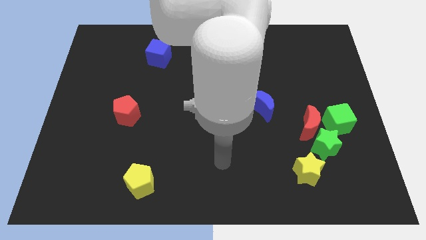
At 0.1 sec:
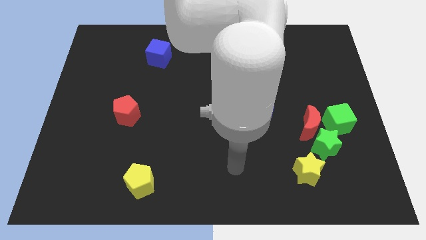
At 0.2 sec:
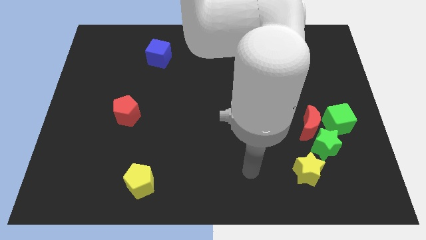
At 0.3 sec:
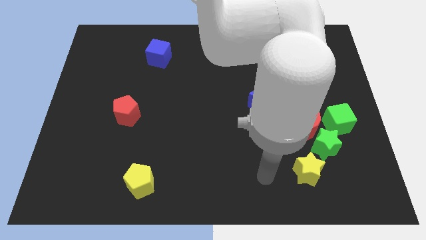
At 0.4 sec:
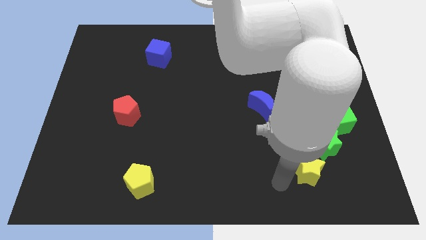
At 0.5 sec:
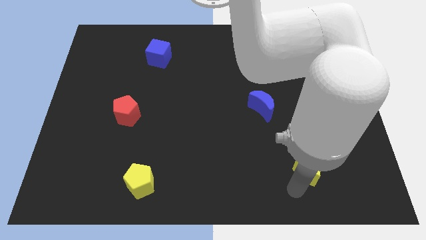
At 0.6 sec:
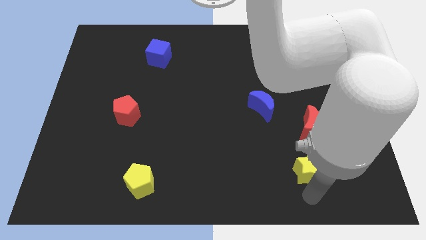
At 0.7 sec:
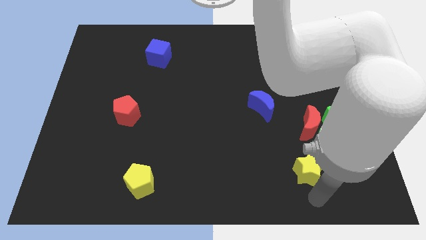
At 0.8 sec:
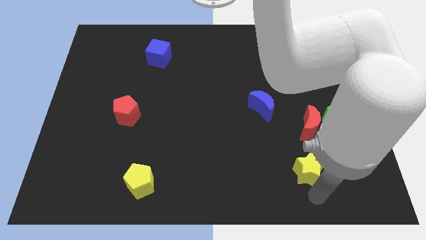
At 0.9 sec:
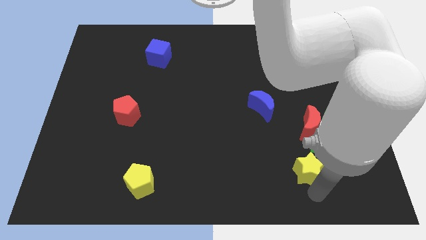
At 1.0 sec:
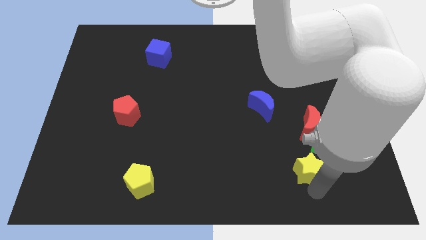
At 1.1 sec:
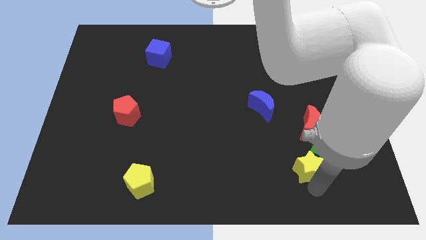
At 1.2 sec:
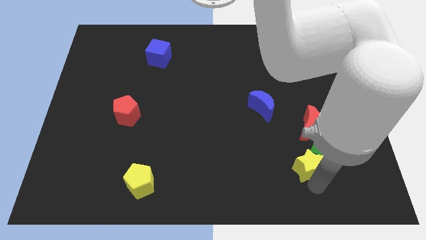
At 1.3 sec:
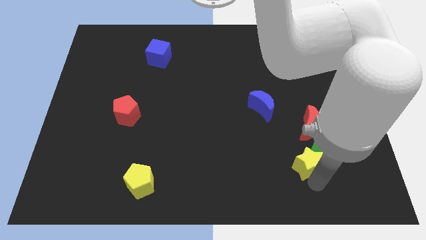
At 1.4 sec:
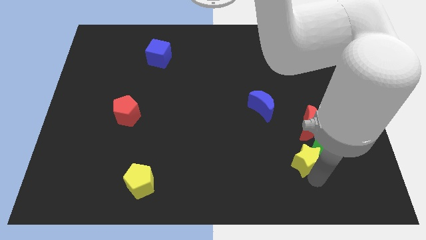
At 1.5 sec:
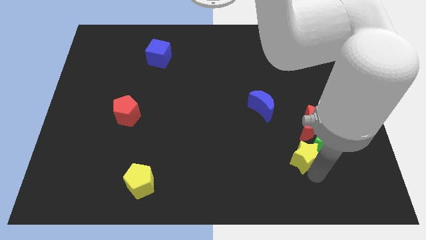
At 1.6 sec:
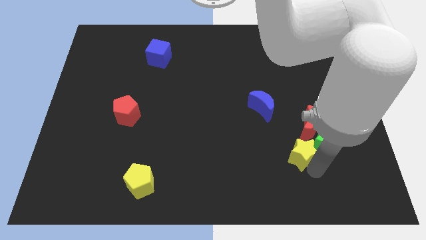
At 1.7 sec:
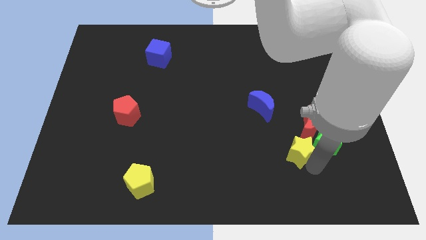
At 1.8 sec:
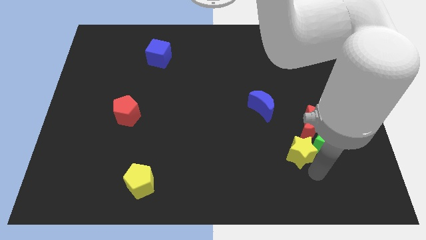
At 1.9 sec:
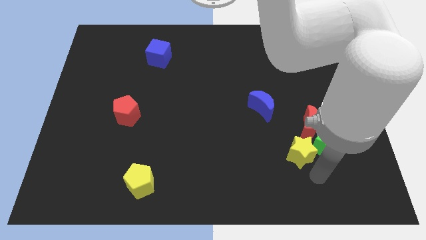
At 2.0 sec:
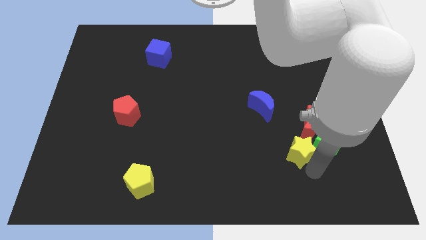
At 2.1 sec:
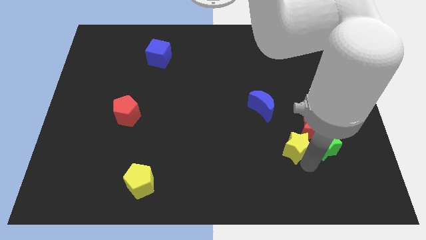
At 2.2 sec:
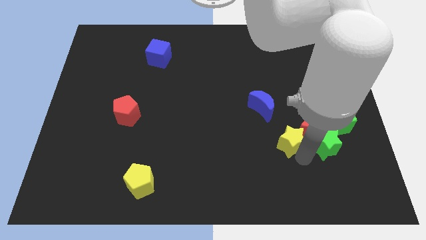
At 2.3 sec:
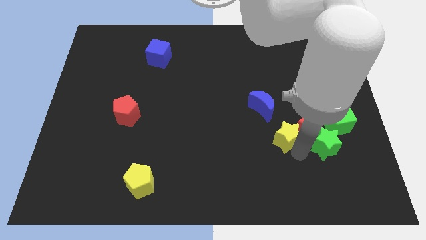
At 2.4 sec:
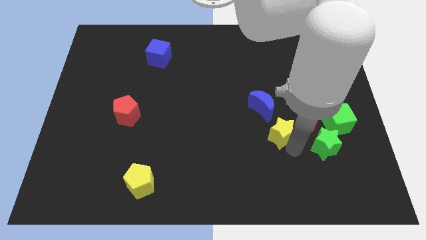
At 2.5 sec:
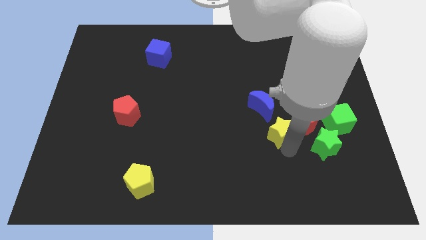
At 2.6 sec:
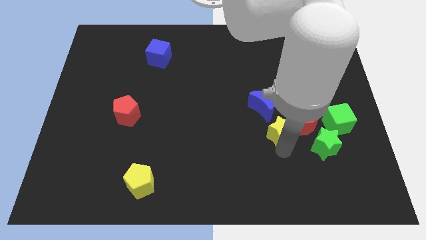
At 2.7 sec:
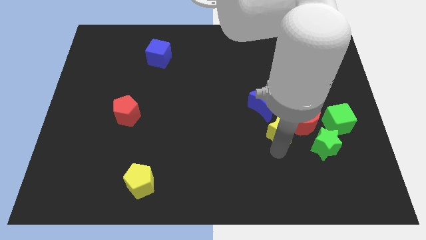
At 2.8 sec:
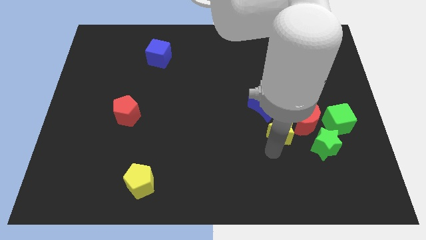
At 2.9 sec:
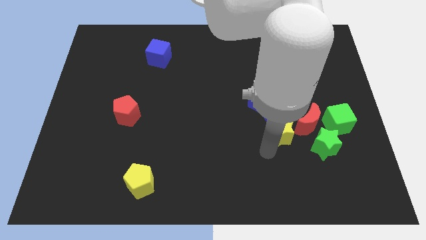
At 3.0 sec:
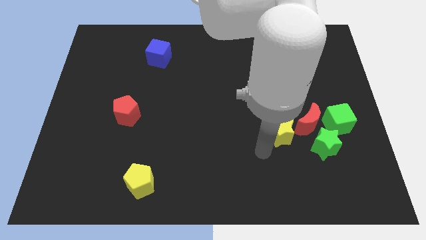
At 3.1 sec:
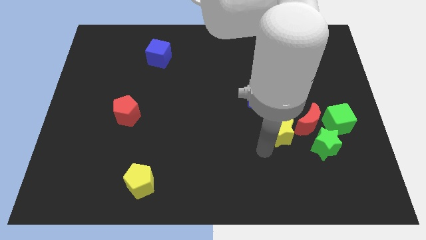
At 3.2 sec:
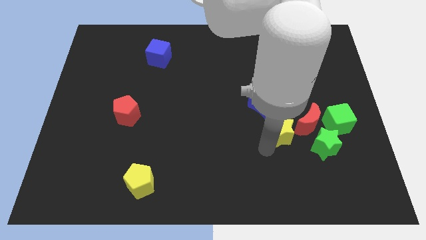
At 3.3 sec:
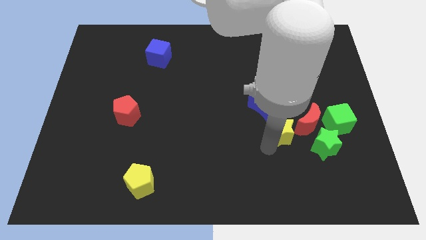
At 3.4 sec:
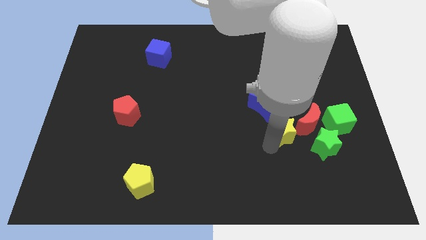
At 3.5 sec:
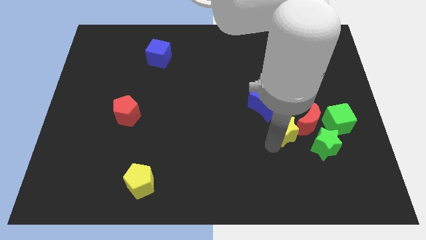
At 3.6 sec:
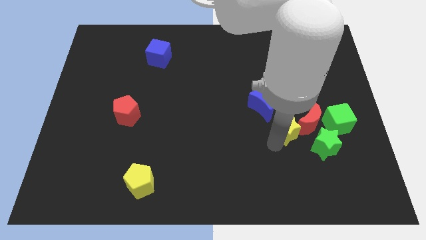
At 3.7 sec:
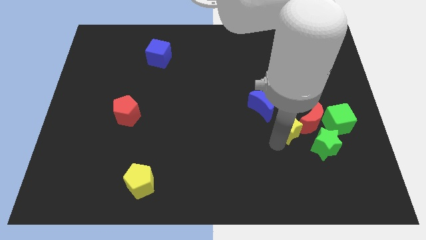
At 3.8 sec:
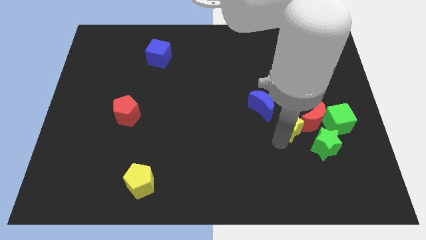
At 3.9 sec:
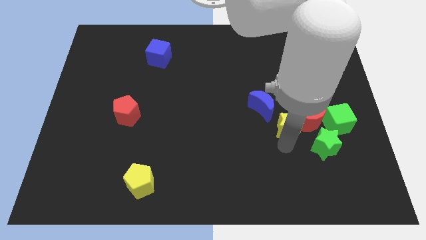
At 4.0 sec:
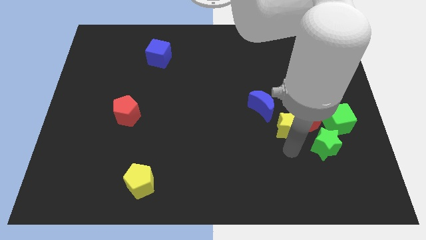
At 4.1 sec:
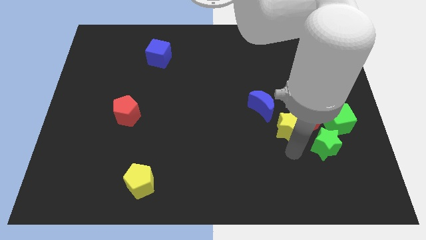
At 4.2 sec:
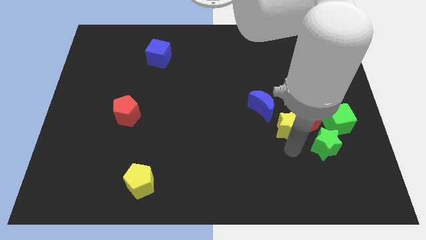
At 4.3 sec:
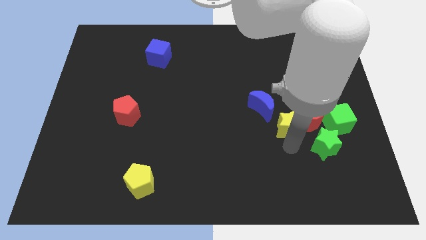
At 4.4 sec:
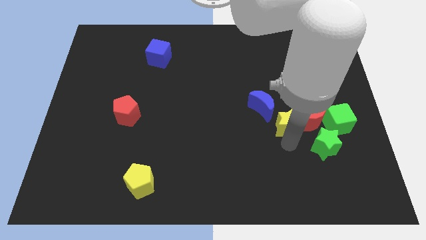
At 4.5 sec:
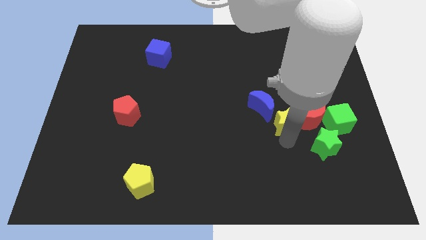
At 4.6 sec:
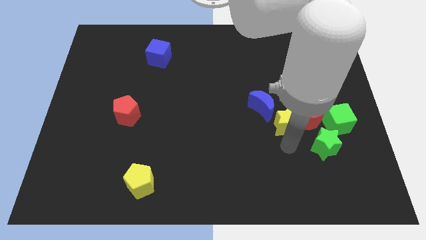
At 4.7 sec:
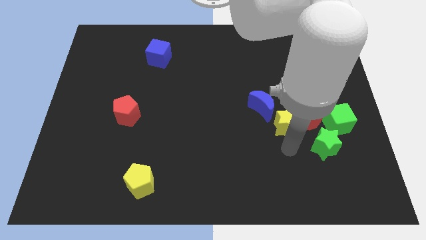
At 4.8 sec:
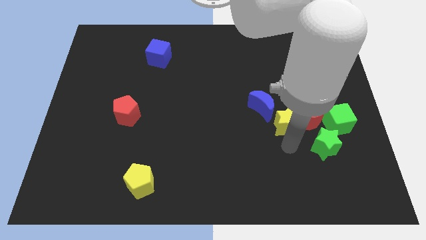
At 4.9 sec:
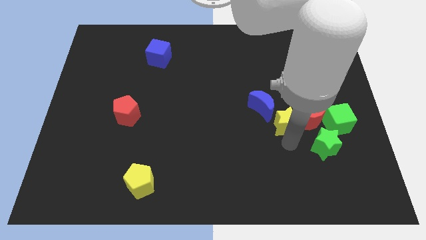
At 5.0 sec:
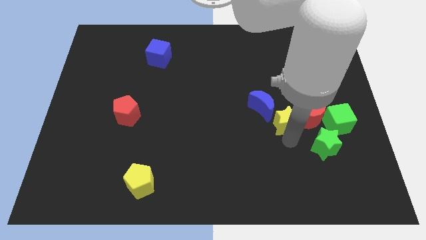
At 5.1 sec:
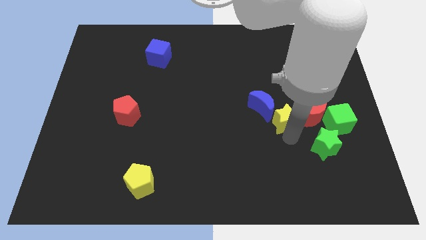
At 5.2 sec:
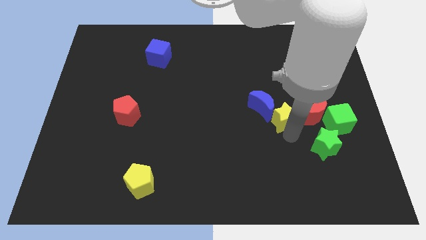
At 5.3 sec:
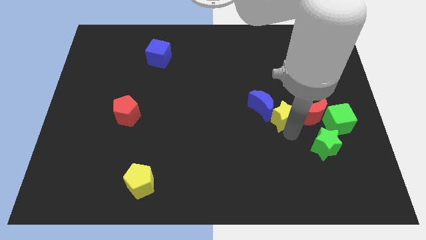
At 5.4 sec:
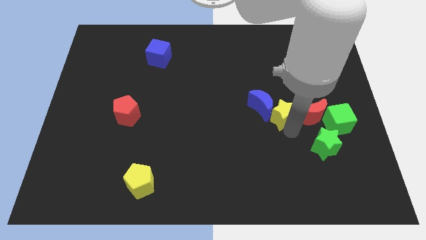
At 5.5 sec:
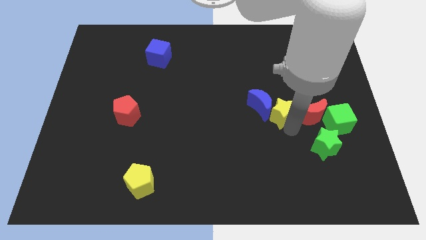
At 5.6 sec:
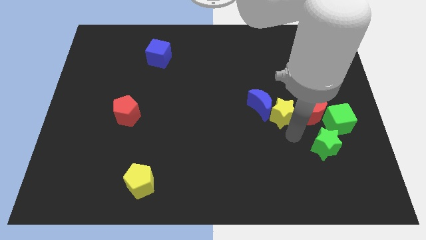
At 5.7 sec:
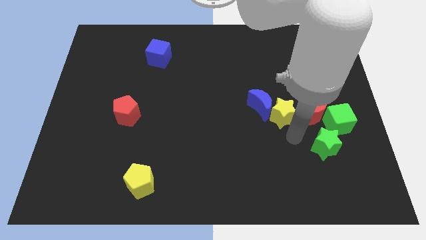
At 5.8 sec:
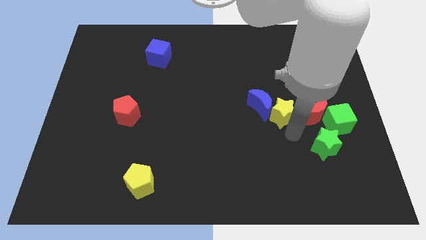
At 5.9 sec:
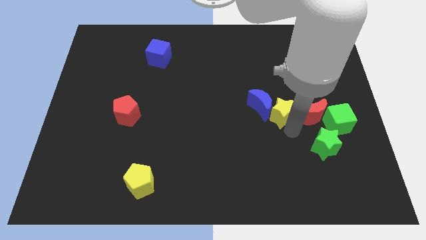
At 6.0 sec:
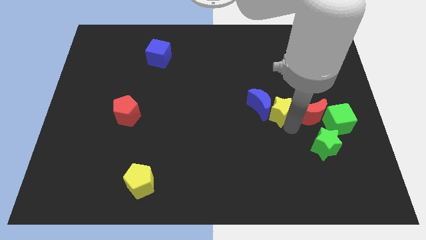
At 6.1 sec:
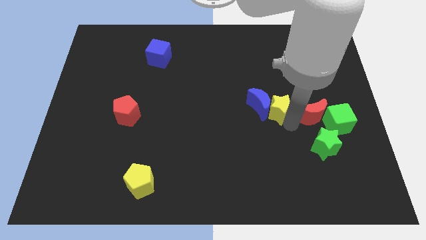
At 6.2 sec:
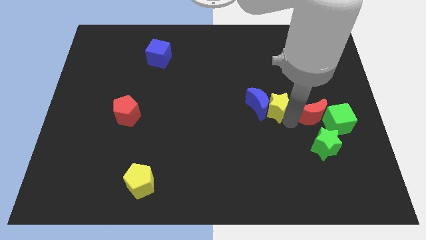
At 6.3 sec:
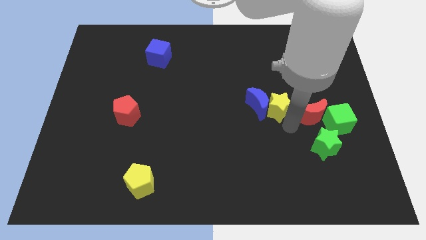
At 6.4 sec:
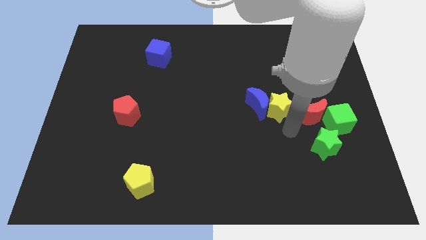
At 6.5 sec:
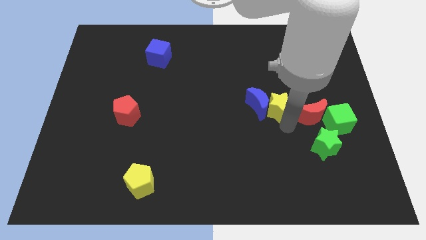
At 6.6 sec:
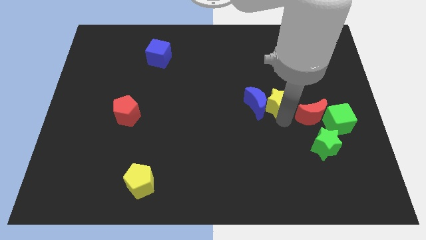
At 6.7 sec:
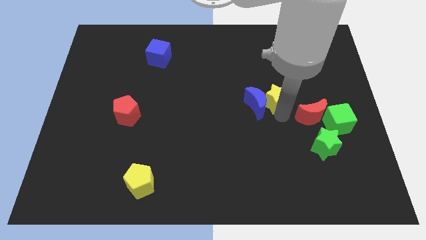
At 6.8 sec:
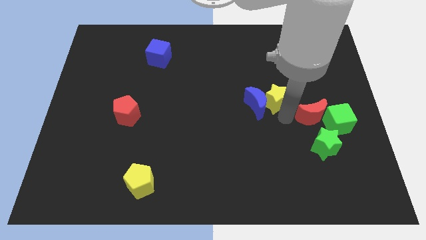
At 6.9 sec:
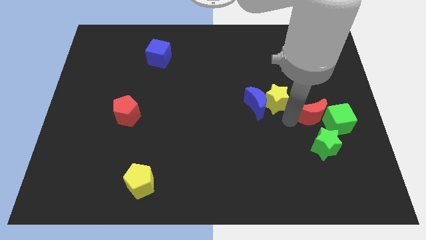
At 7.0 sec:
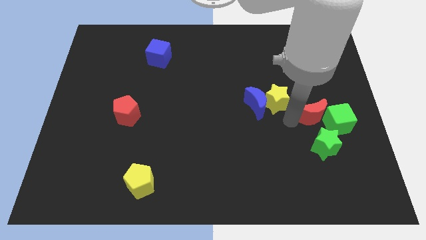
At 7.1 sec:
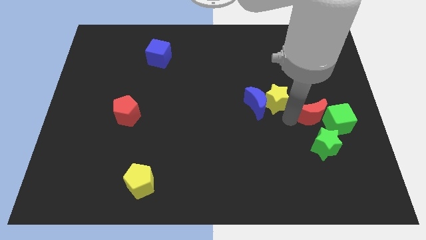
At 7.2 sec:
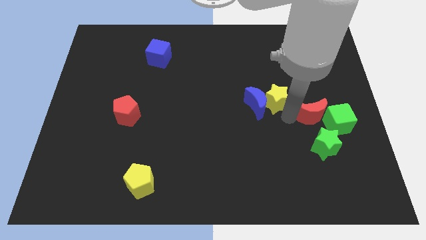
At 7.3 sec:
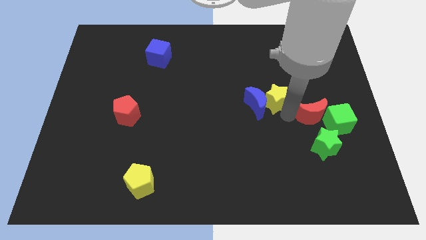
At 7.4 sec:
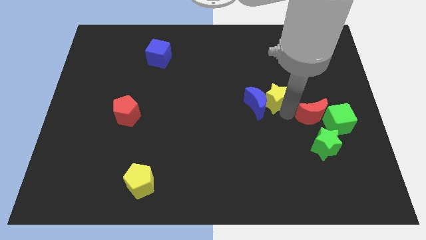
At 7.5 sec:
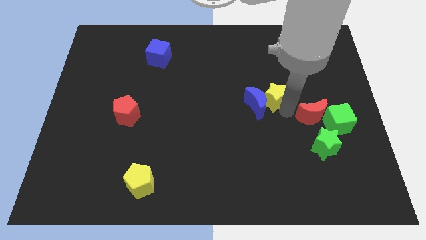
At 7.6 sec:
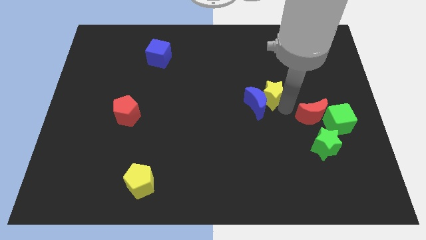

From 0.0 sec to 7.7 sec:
push the yellow star above the blue moon
